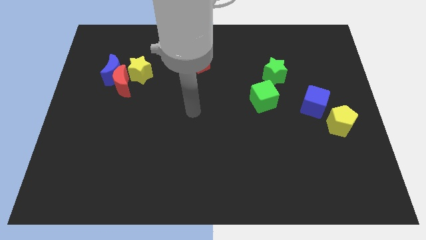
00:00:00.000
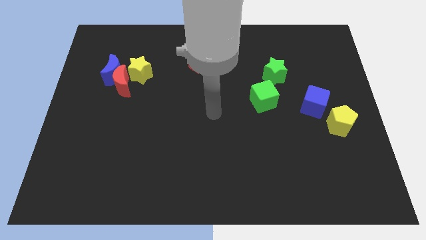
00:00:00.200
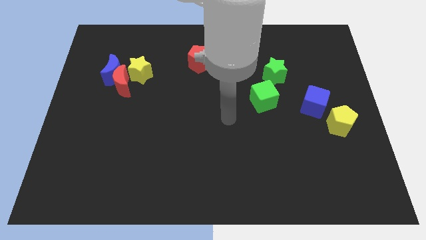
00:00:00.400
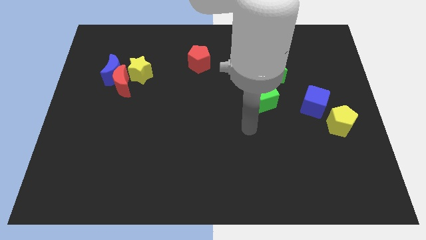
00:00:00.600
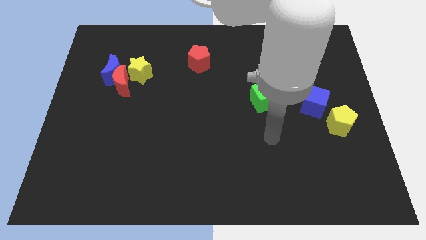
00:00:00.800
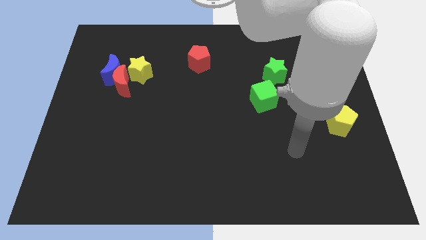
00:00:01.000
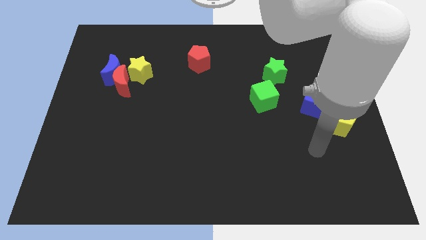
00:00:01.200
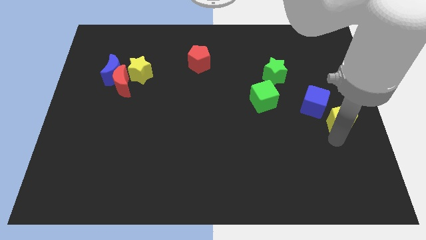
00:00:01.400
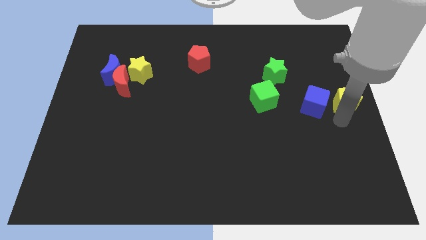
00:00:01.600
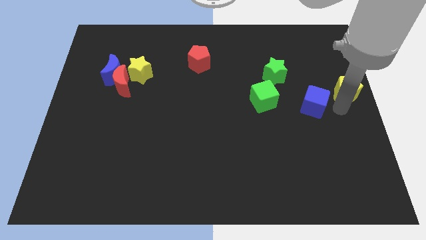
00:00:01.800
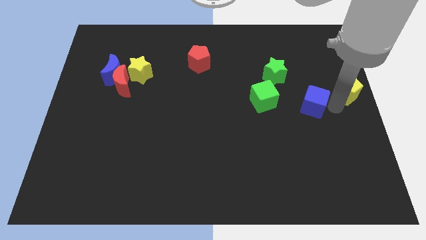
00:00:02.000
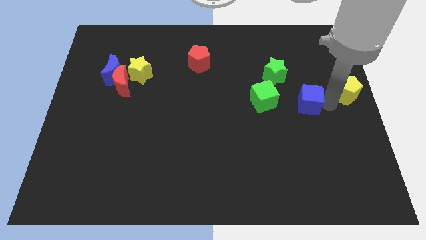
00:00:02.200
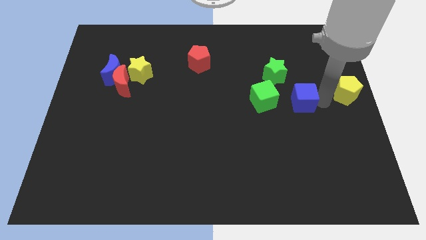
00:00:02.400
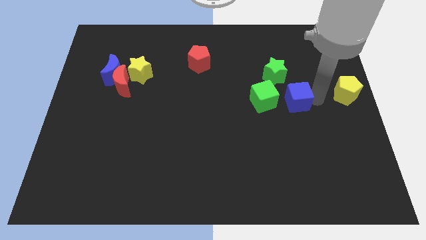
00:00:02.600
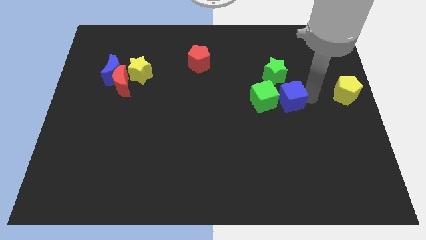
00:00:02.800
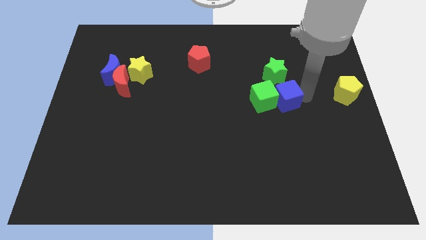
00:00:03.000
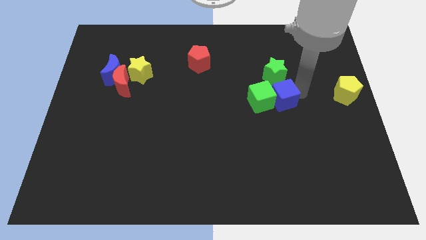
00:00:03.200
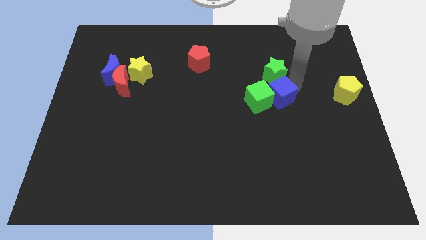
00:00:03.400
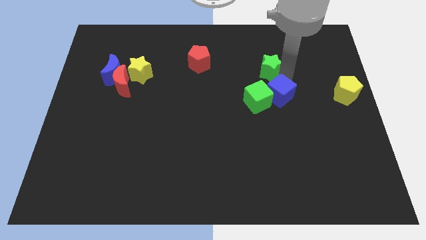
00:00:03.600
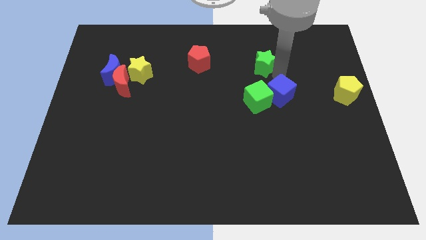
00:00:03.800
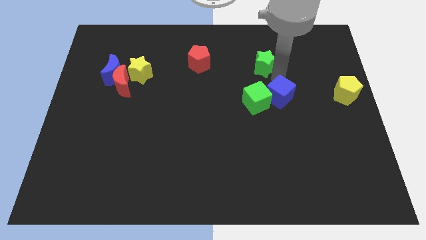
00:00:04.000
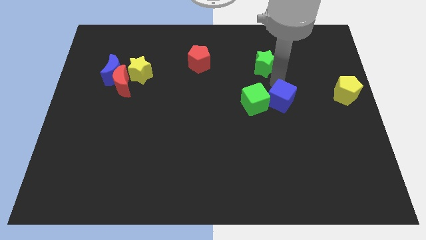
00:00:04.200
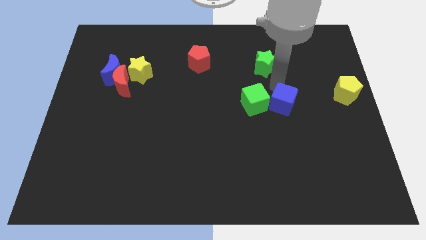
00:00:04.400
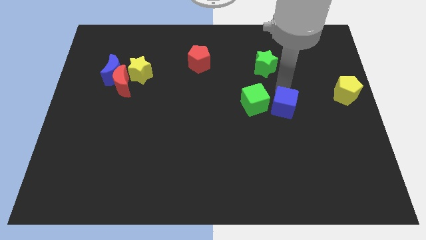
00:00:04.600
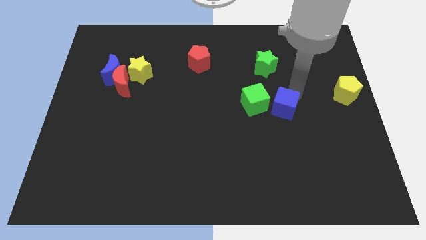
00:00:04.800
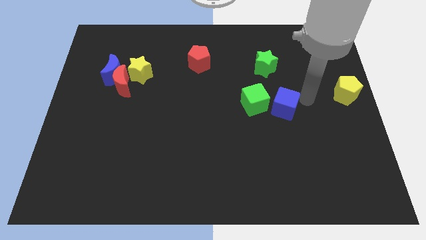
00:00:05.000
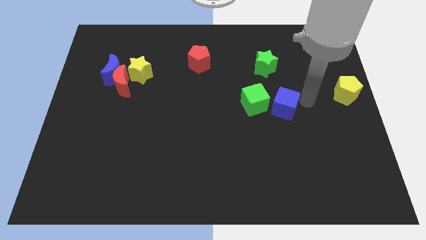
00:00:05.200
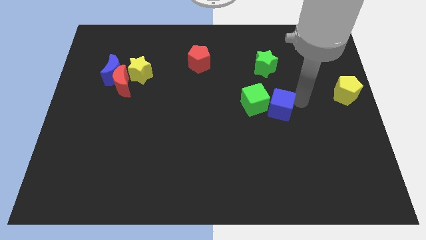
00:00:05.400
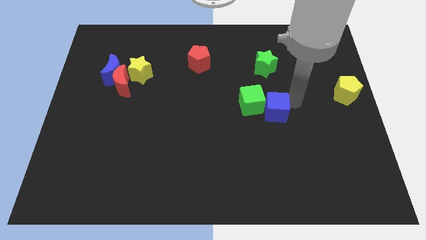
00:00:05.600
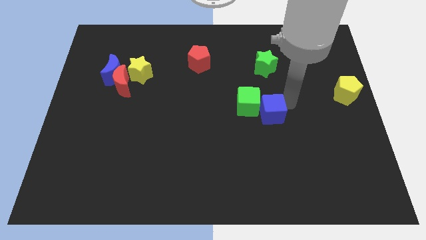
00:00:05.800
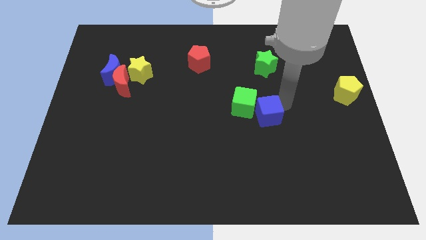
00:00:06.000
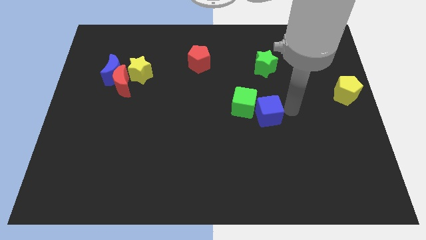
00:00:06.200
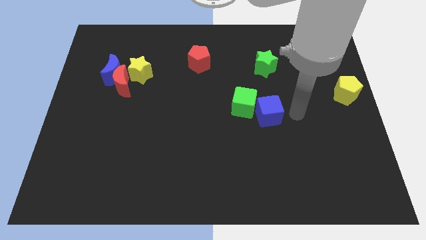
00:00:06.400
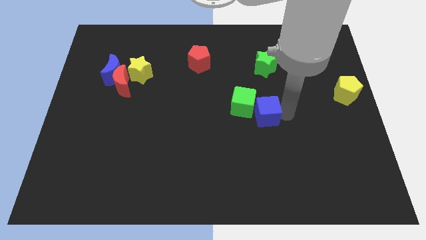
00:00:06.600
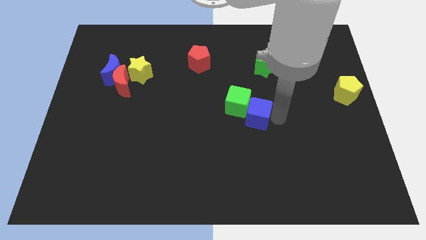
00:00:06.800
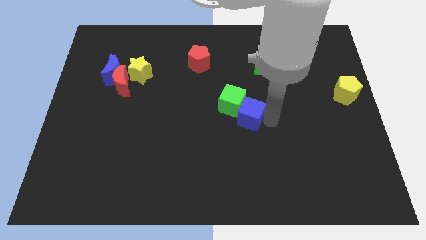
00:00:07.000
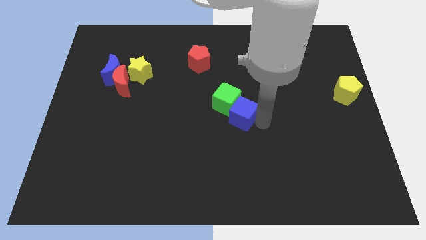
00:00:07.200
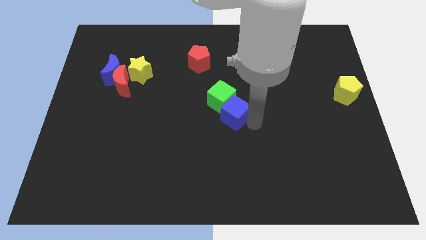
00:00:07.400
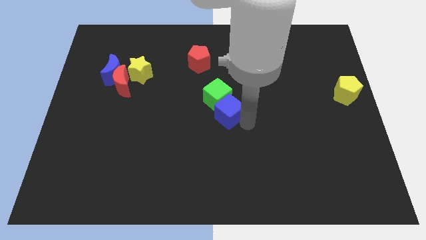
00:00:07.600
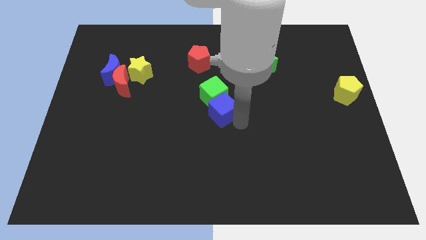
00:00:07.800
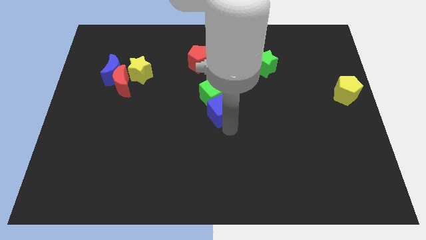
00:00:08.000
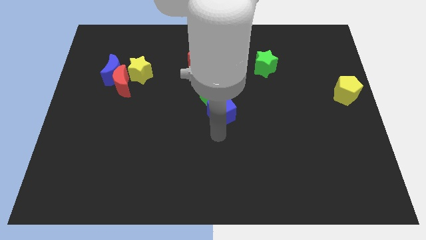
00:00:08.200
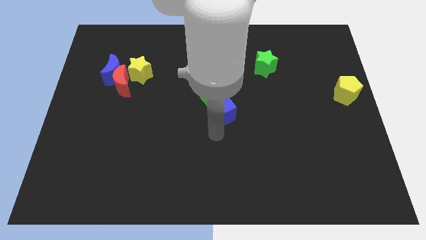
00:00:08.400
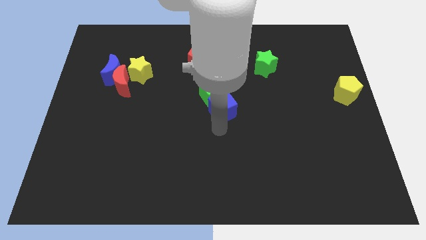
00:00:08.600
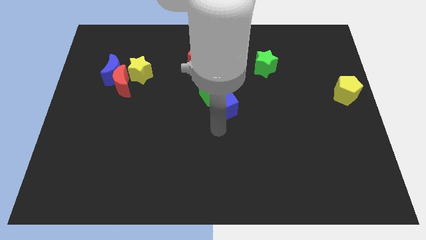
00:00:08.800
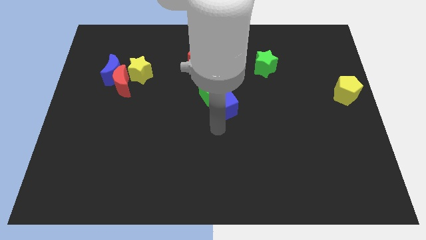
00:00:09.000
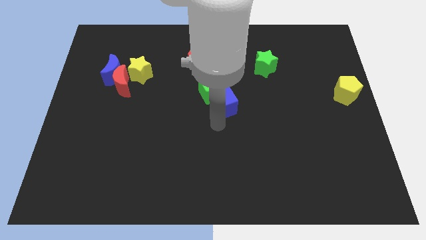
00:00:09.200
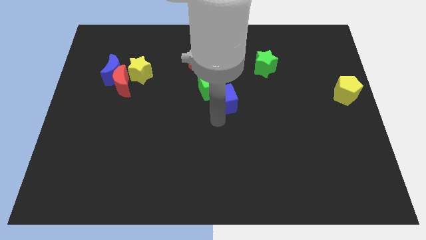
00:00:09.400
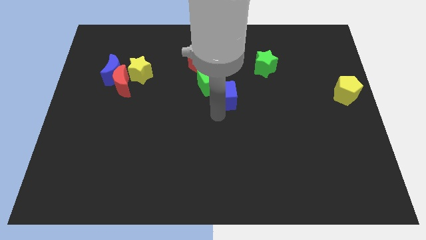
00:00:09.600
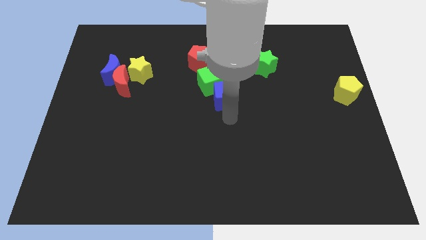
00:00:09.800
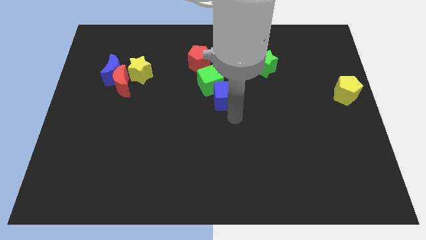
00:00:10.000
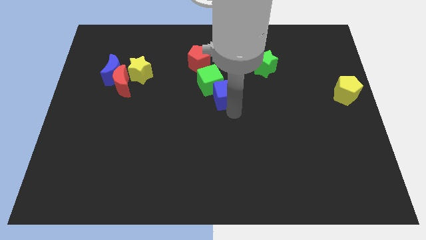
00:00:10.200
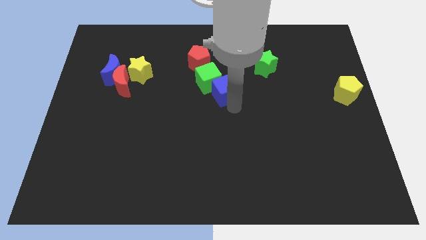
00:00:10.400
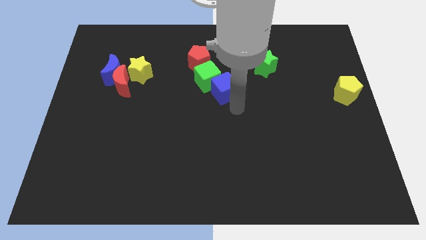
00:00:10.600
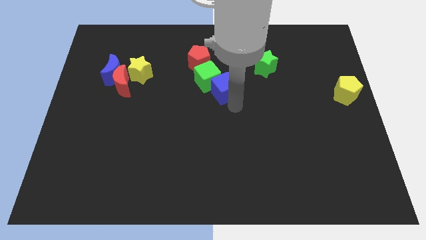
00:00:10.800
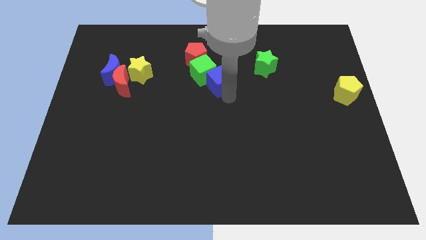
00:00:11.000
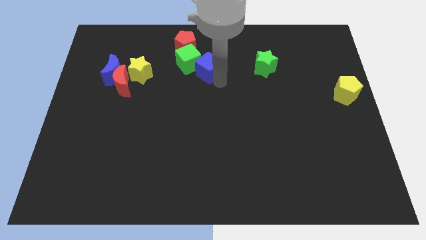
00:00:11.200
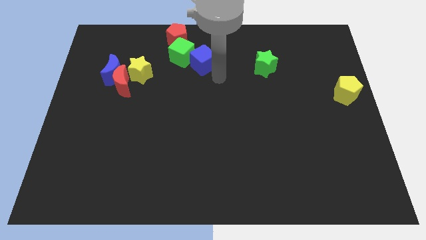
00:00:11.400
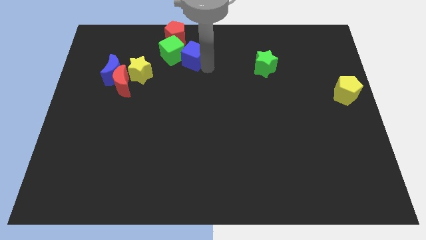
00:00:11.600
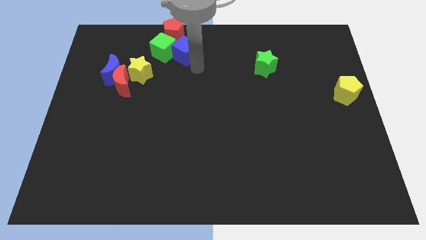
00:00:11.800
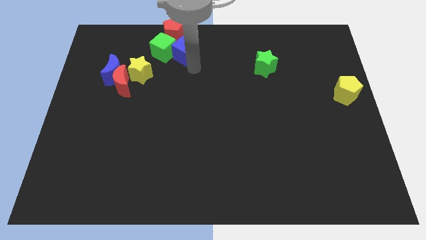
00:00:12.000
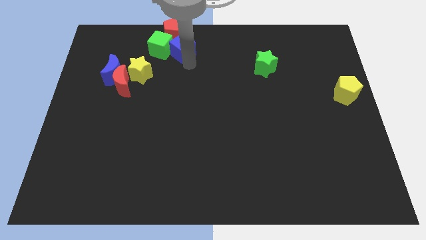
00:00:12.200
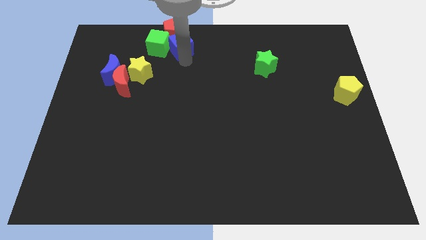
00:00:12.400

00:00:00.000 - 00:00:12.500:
move the blue cube close to the red pentagon
